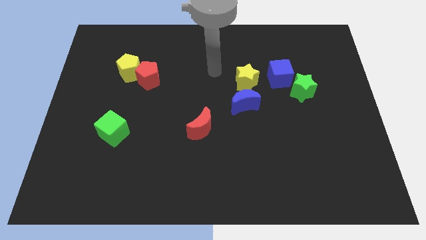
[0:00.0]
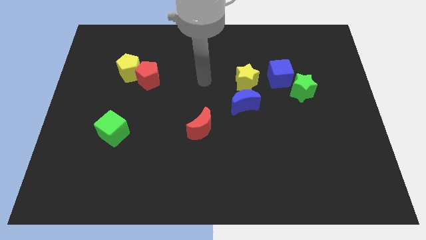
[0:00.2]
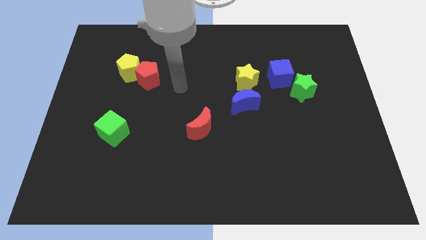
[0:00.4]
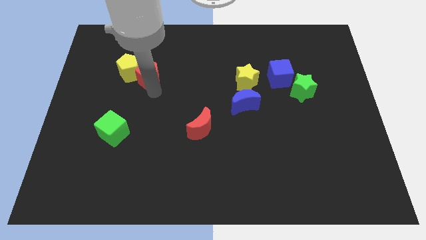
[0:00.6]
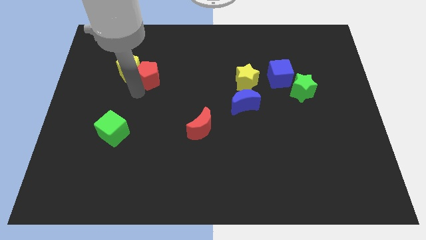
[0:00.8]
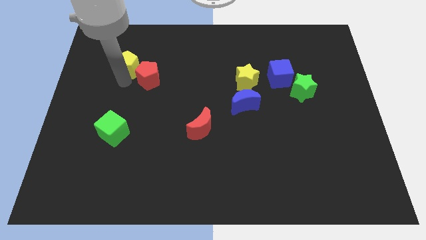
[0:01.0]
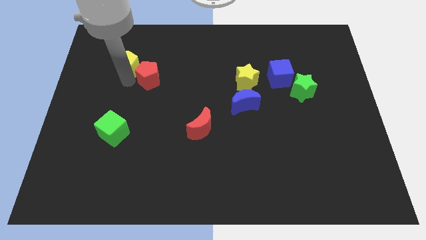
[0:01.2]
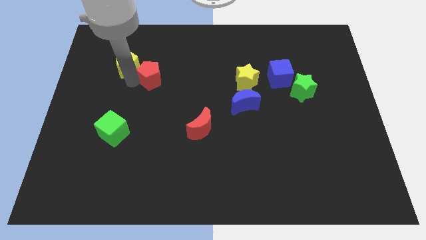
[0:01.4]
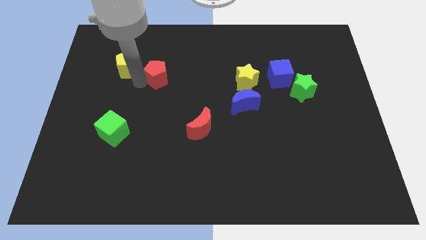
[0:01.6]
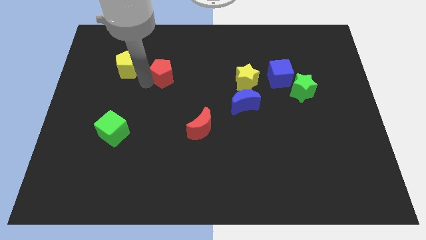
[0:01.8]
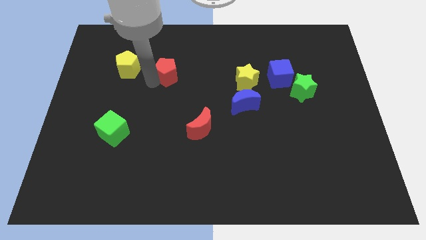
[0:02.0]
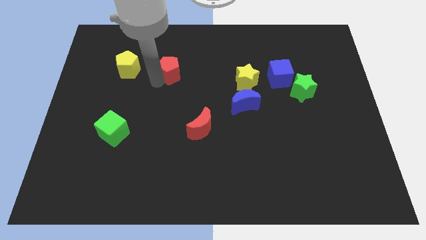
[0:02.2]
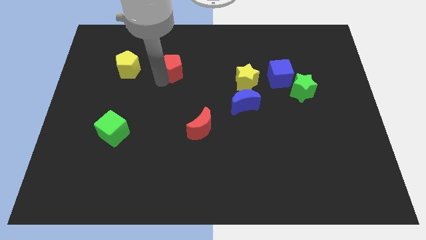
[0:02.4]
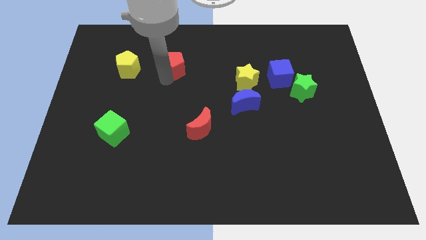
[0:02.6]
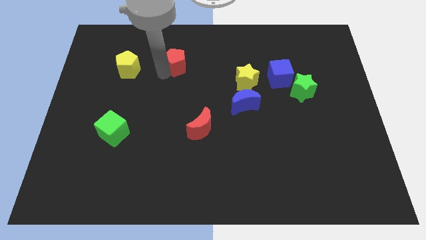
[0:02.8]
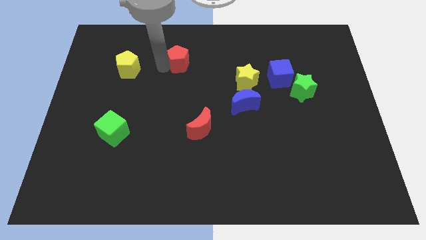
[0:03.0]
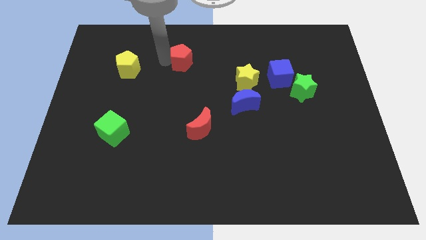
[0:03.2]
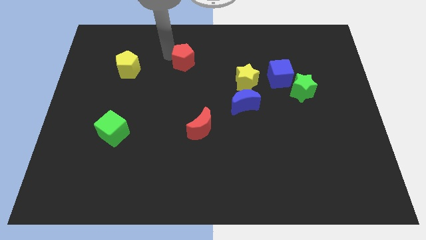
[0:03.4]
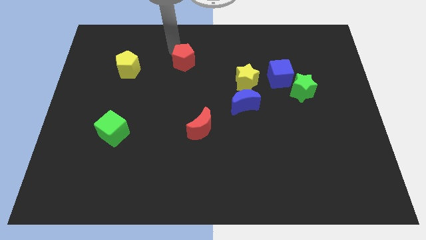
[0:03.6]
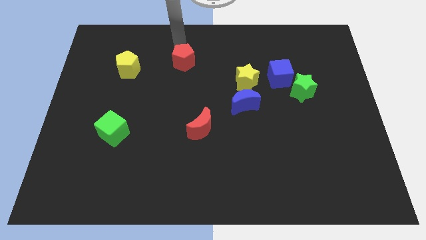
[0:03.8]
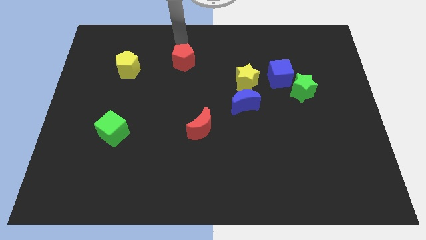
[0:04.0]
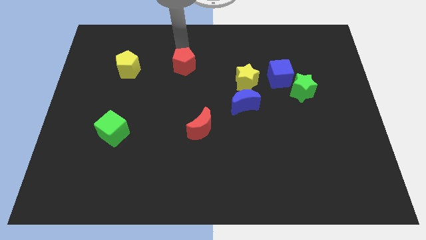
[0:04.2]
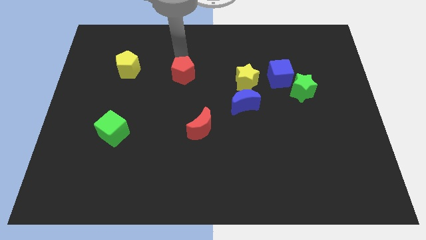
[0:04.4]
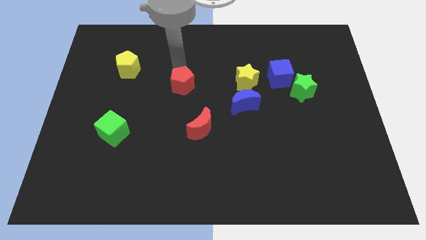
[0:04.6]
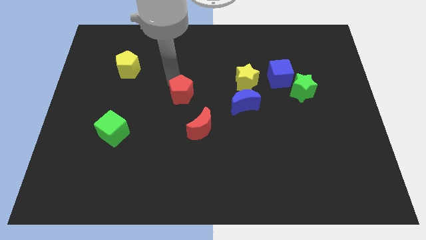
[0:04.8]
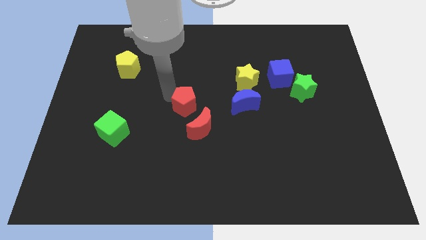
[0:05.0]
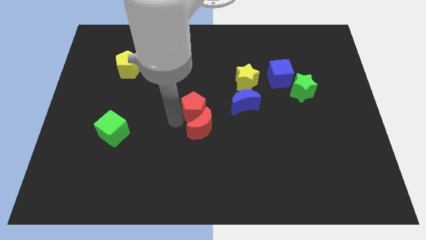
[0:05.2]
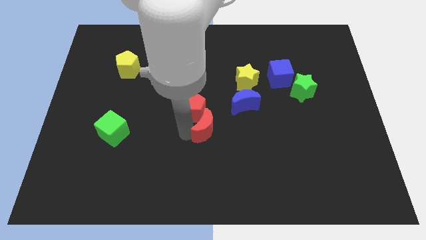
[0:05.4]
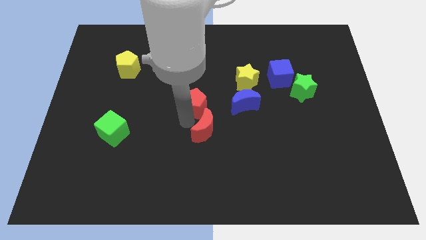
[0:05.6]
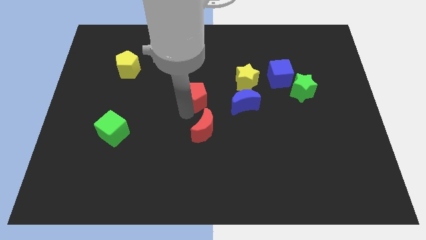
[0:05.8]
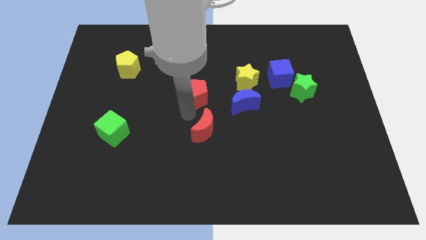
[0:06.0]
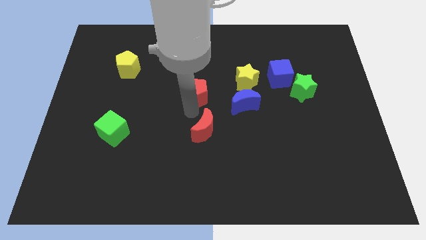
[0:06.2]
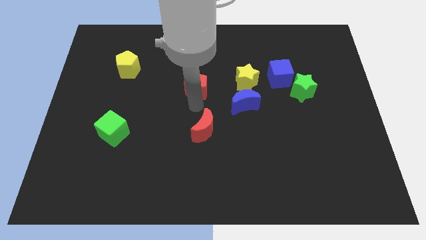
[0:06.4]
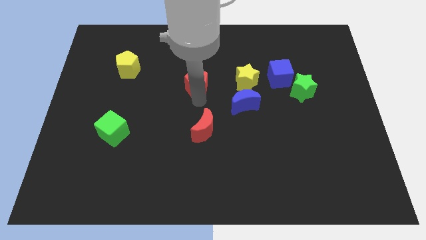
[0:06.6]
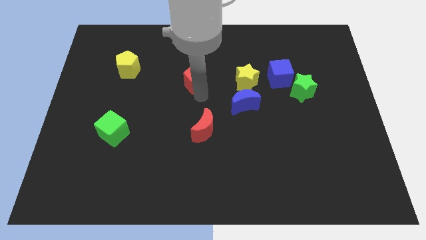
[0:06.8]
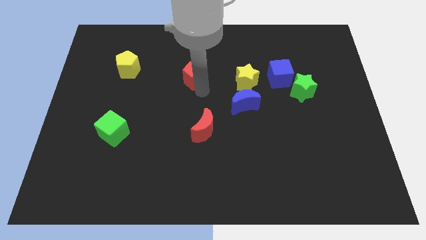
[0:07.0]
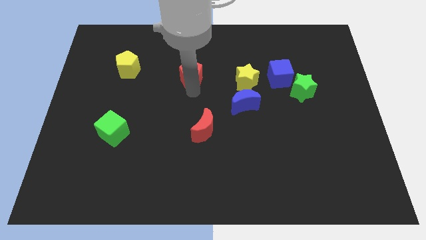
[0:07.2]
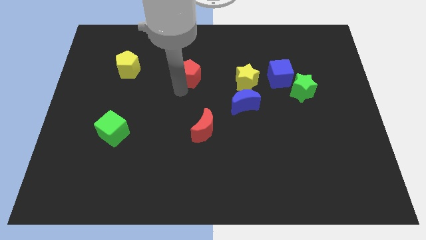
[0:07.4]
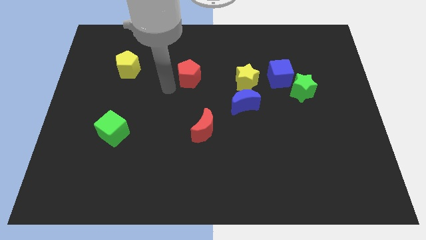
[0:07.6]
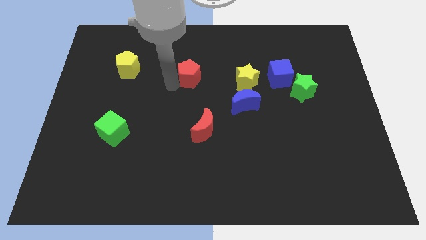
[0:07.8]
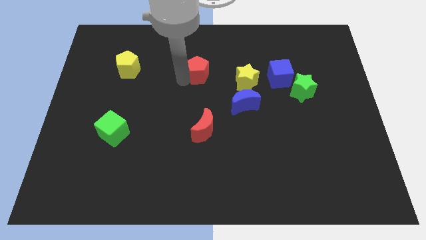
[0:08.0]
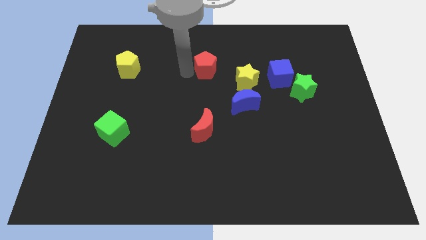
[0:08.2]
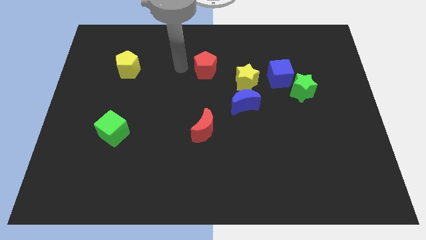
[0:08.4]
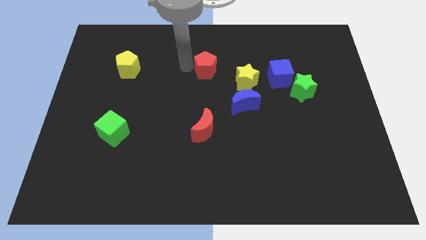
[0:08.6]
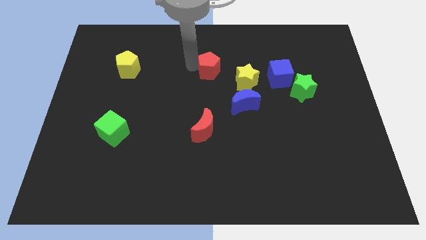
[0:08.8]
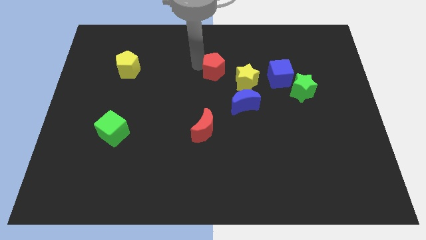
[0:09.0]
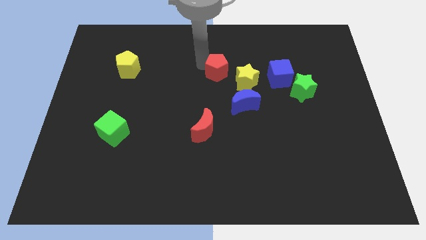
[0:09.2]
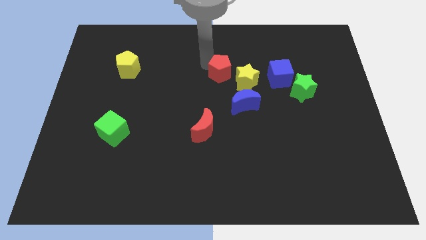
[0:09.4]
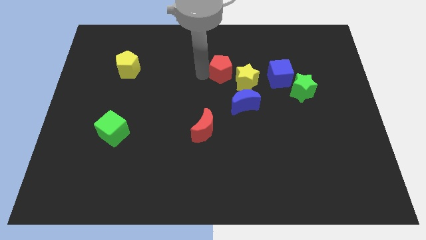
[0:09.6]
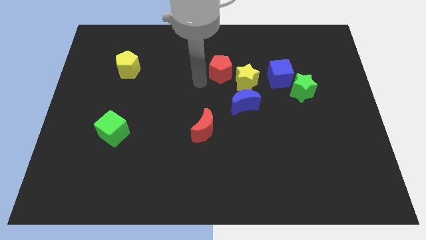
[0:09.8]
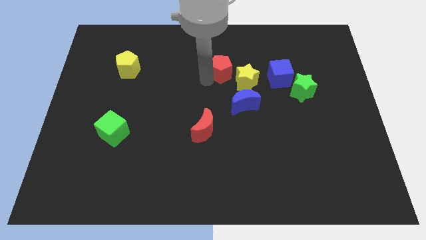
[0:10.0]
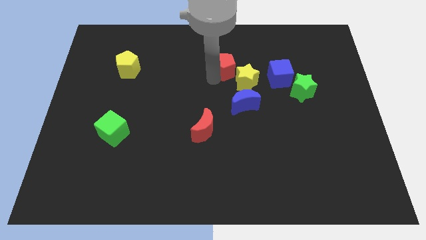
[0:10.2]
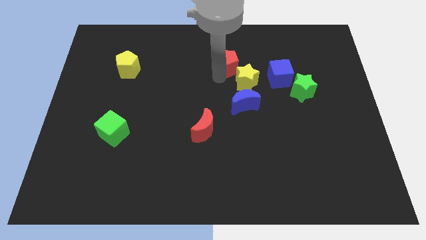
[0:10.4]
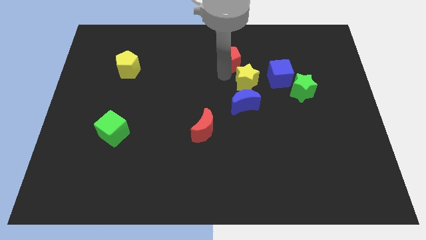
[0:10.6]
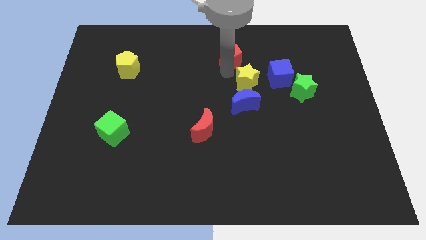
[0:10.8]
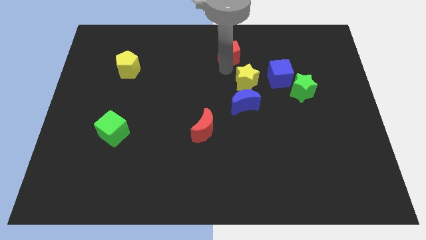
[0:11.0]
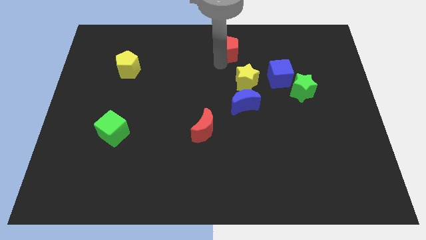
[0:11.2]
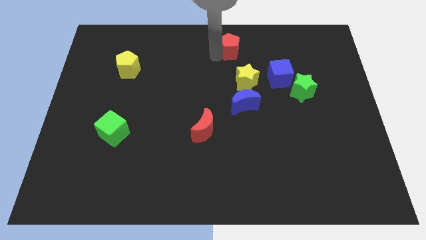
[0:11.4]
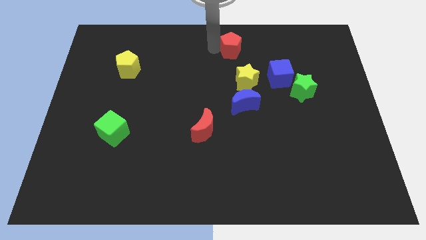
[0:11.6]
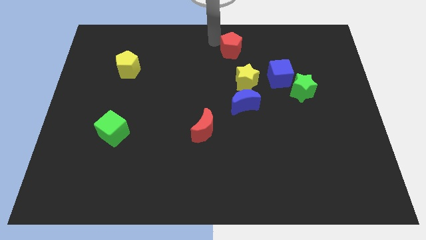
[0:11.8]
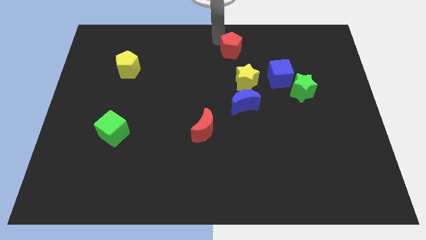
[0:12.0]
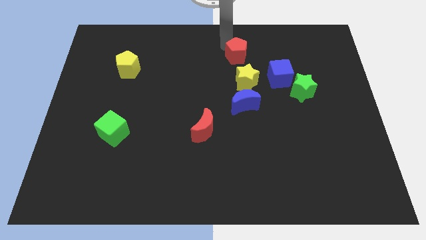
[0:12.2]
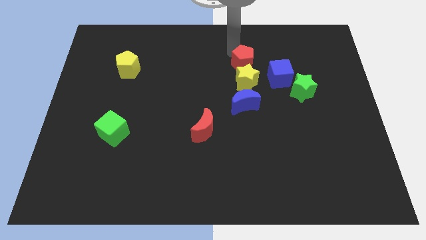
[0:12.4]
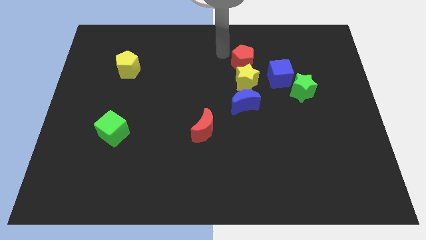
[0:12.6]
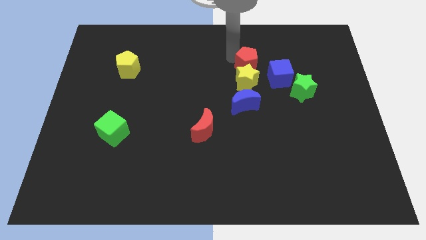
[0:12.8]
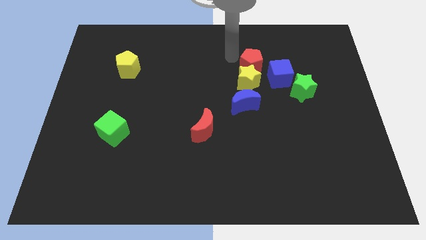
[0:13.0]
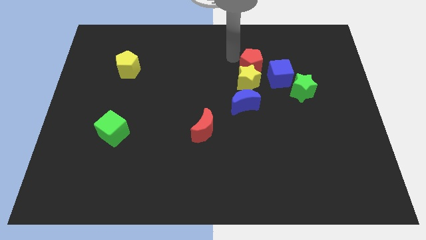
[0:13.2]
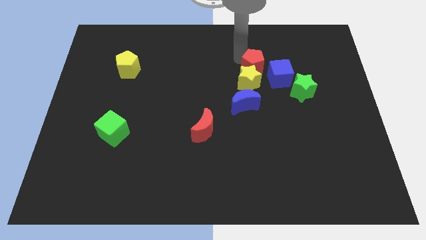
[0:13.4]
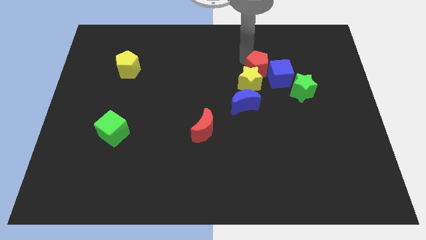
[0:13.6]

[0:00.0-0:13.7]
put the red pentagon close to the blue cube

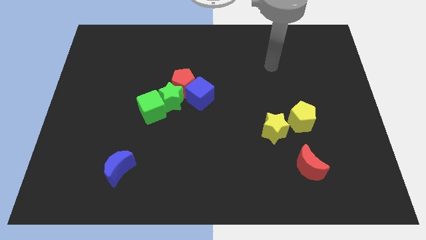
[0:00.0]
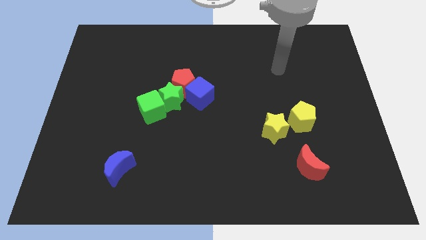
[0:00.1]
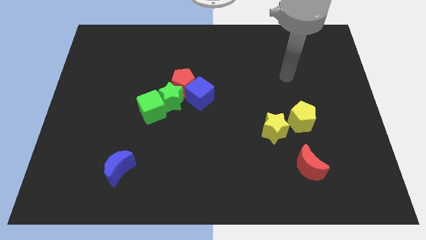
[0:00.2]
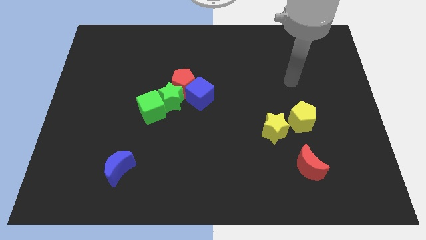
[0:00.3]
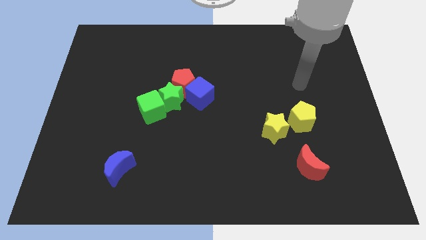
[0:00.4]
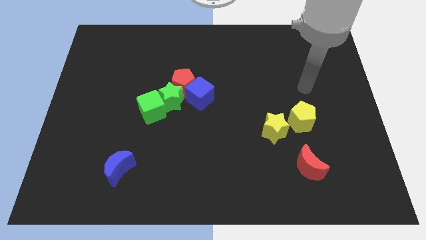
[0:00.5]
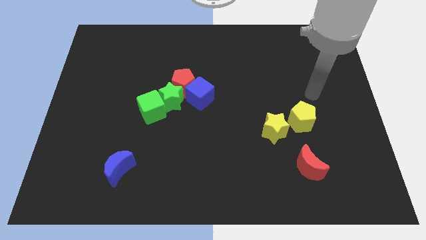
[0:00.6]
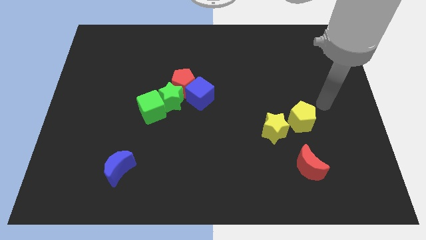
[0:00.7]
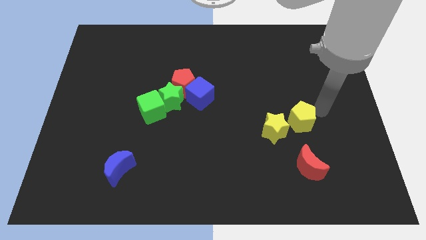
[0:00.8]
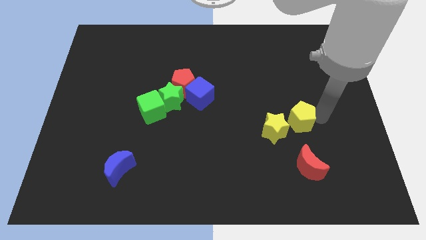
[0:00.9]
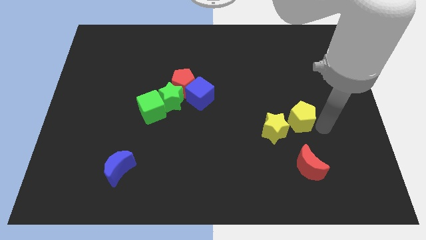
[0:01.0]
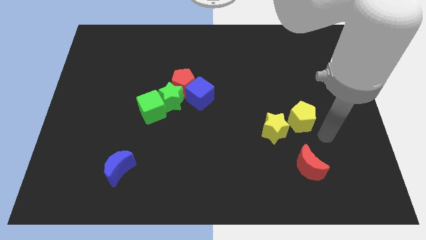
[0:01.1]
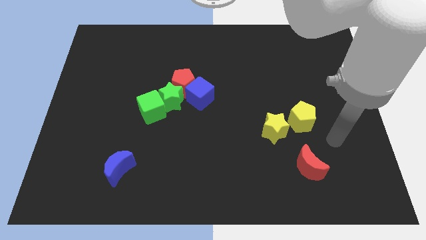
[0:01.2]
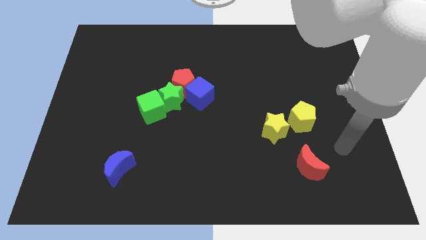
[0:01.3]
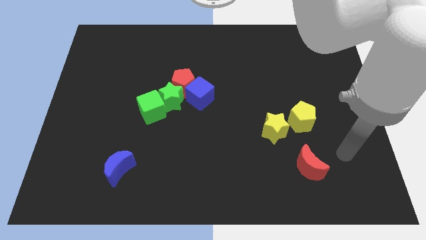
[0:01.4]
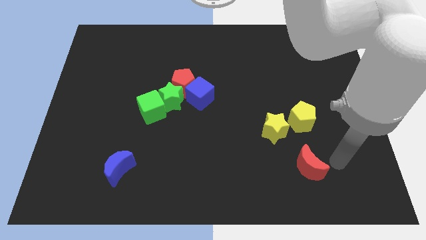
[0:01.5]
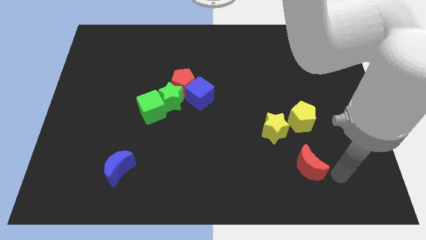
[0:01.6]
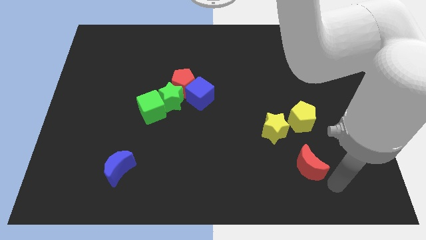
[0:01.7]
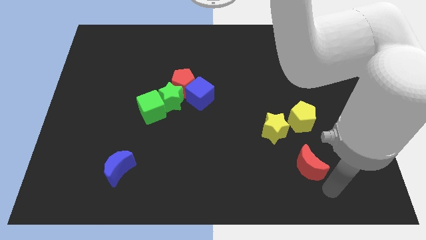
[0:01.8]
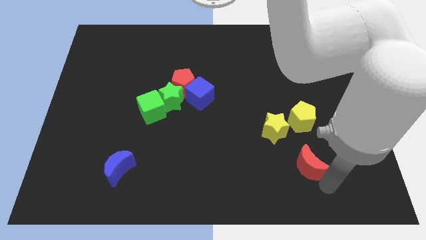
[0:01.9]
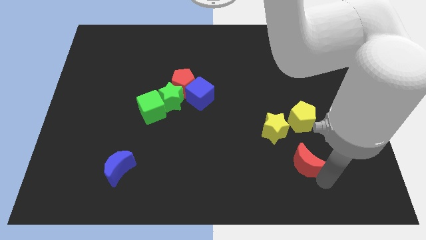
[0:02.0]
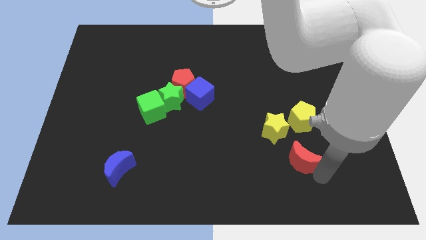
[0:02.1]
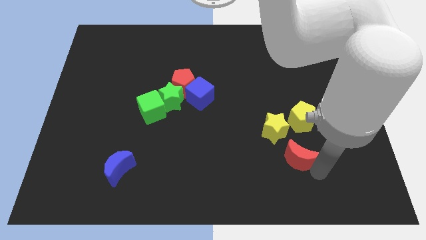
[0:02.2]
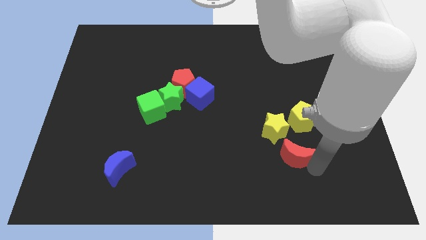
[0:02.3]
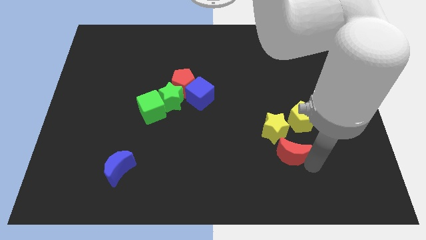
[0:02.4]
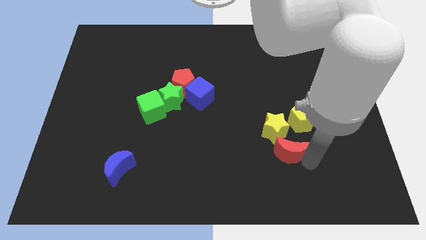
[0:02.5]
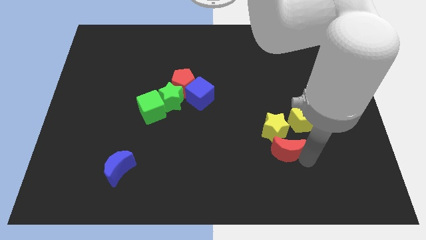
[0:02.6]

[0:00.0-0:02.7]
put the red moon close to the yellow star
